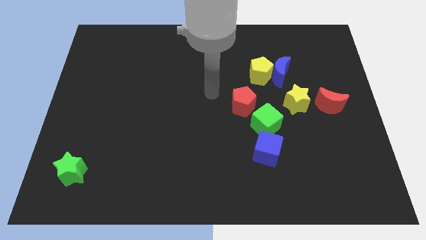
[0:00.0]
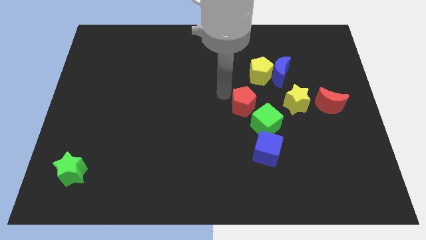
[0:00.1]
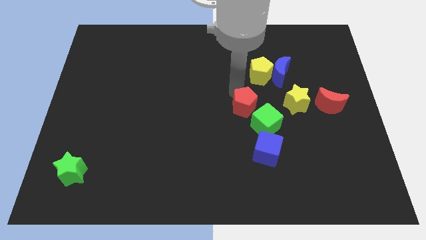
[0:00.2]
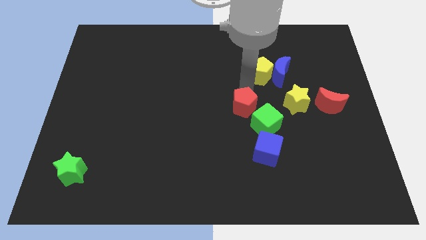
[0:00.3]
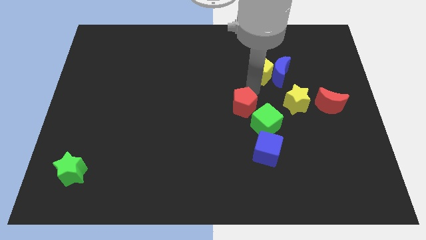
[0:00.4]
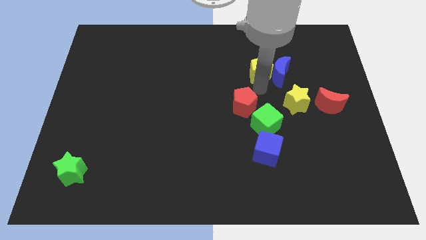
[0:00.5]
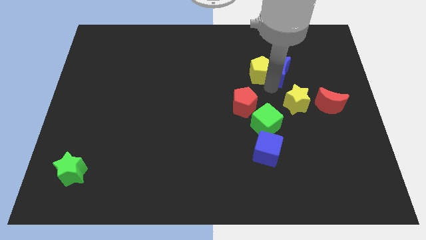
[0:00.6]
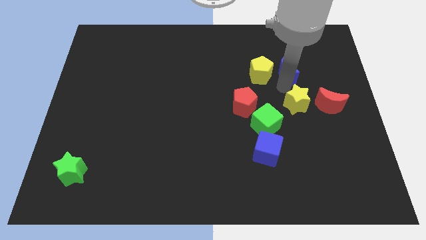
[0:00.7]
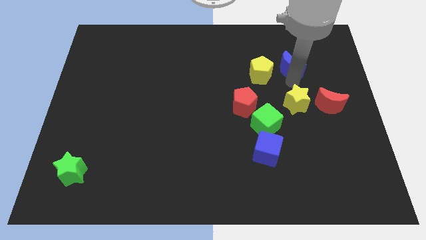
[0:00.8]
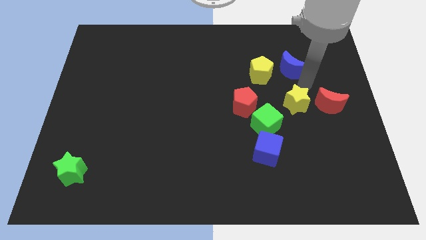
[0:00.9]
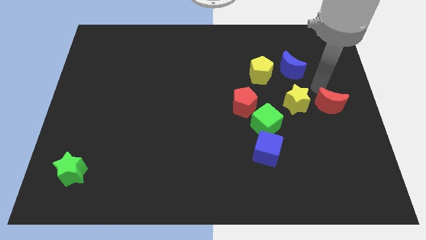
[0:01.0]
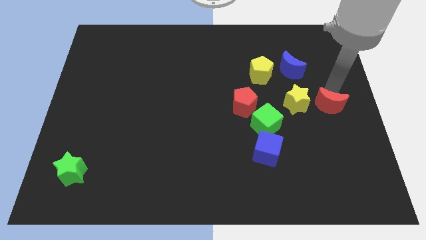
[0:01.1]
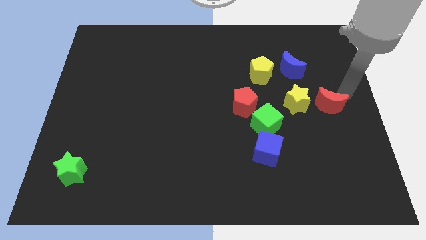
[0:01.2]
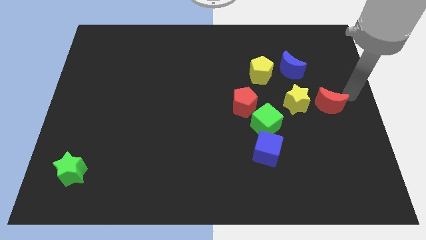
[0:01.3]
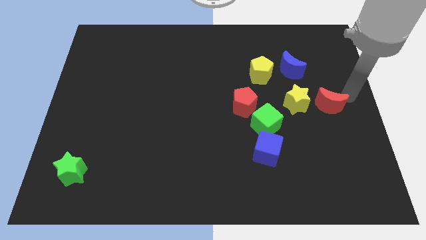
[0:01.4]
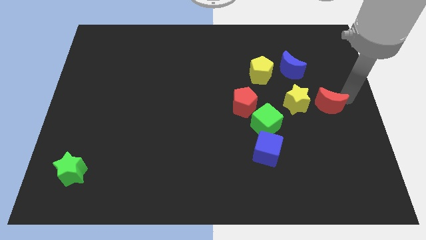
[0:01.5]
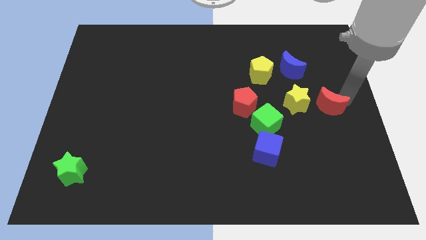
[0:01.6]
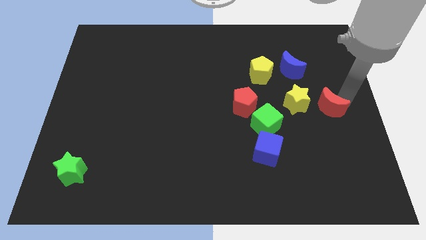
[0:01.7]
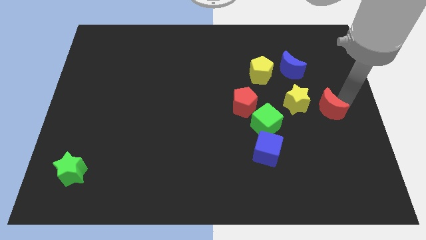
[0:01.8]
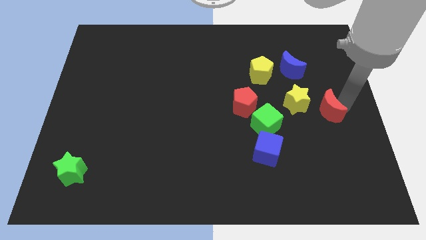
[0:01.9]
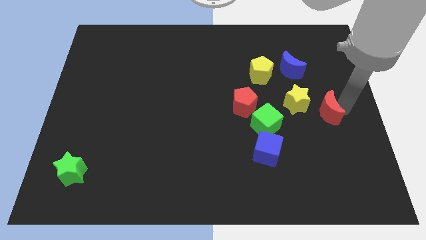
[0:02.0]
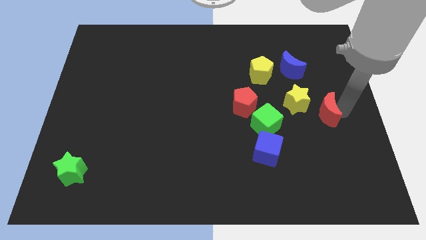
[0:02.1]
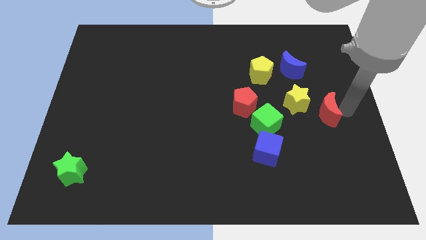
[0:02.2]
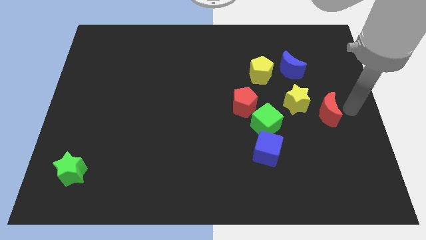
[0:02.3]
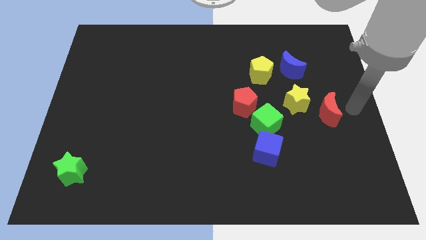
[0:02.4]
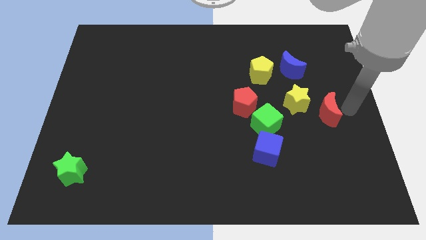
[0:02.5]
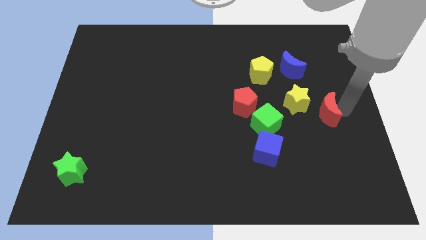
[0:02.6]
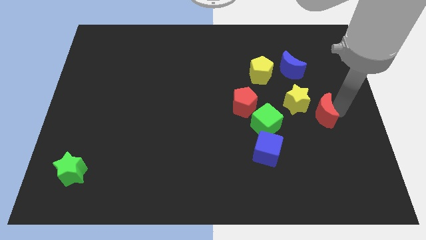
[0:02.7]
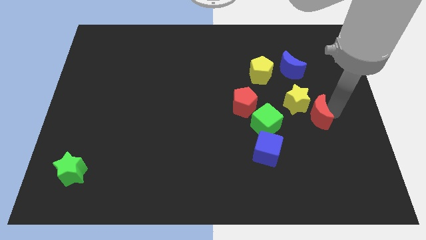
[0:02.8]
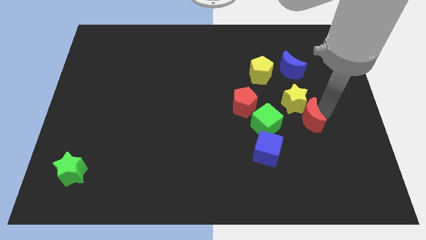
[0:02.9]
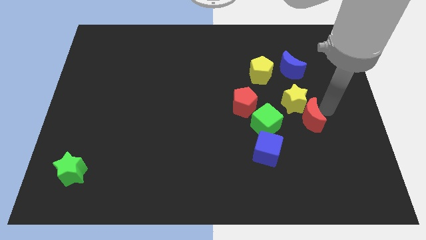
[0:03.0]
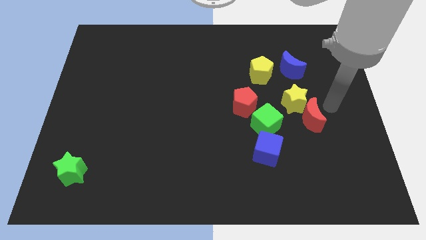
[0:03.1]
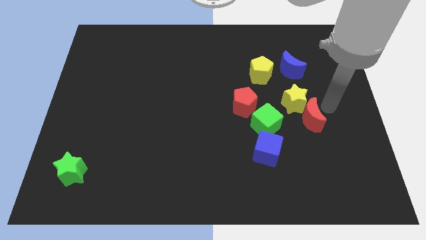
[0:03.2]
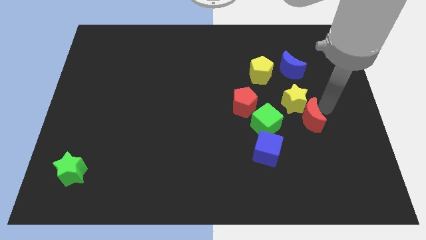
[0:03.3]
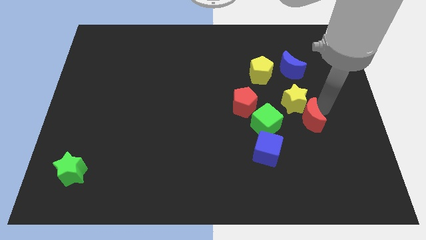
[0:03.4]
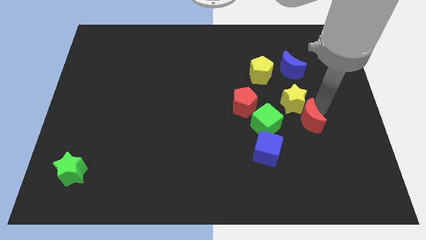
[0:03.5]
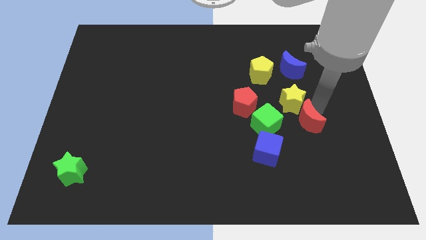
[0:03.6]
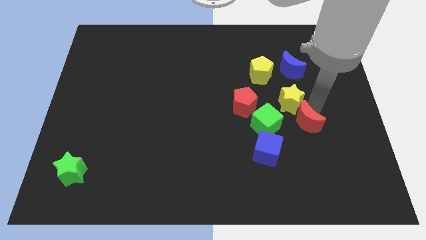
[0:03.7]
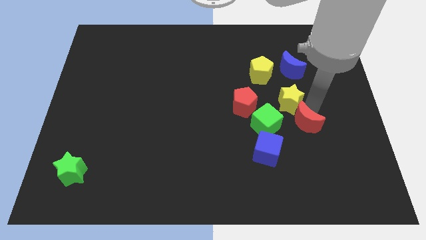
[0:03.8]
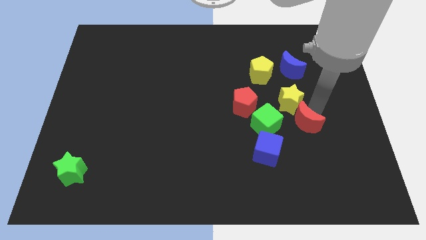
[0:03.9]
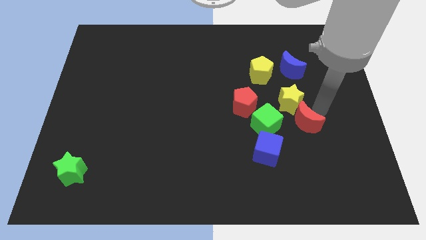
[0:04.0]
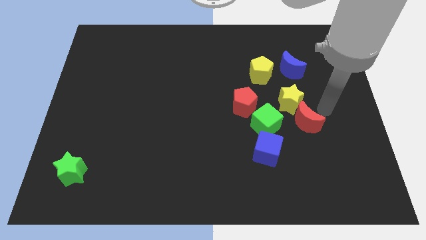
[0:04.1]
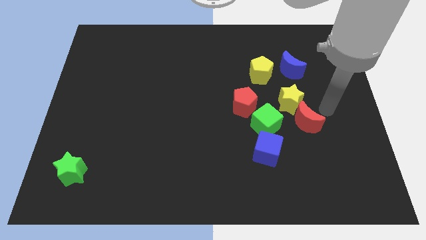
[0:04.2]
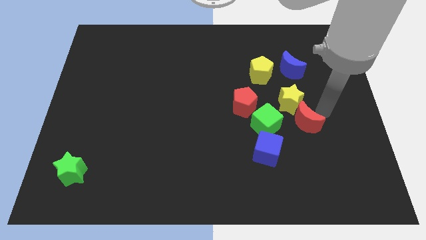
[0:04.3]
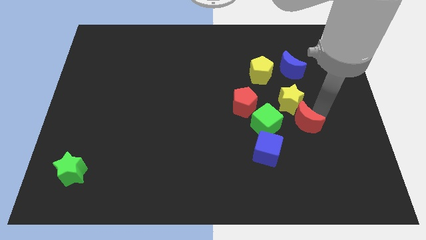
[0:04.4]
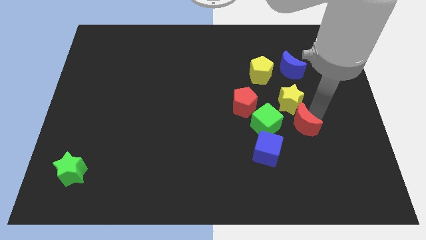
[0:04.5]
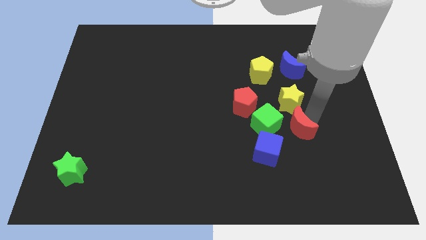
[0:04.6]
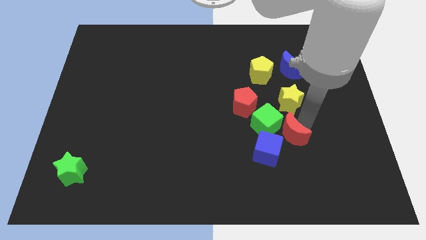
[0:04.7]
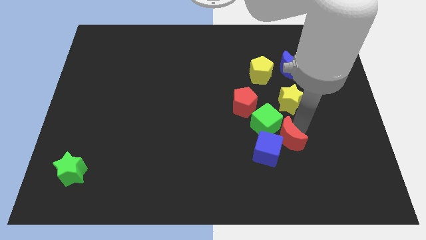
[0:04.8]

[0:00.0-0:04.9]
slide the red moon close to the blue cube

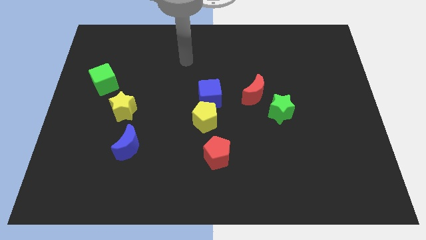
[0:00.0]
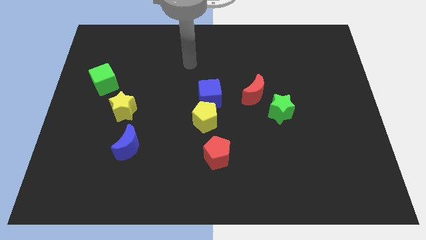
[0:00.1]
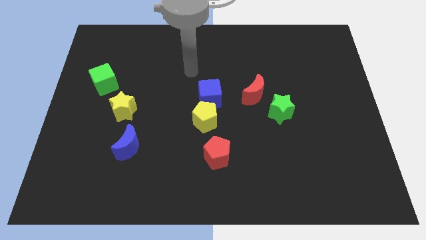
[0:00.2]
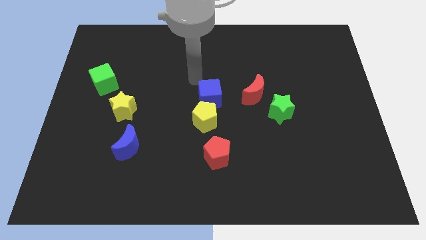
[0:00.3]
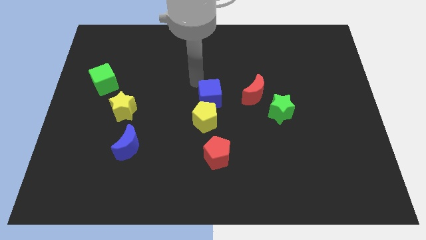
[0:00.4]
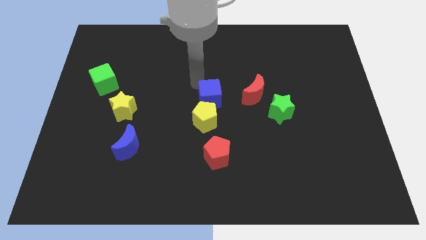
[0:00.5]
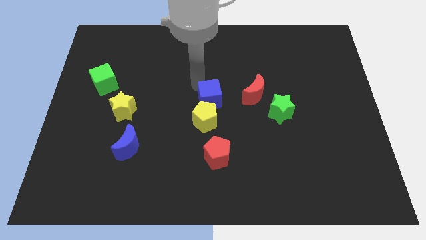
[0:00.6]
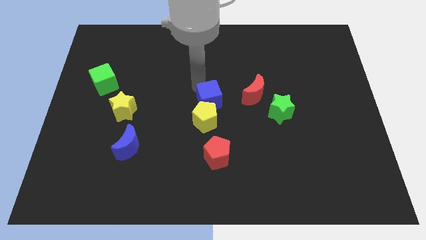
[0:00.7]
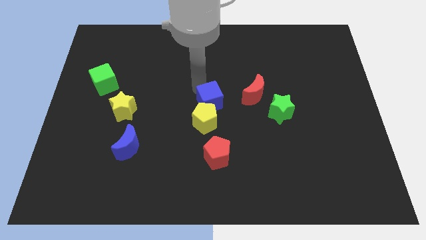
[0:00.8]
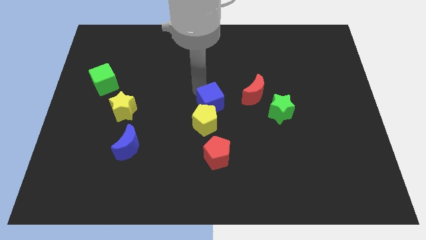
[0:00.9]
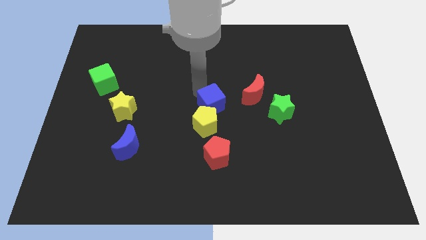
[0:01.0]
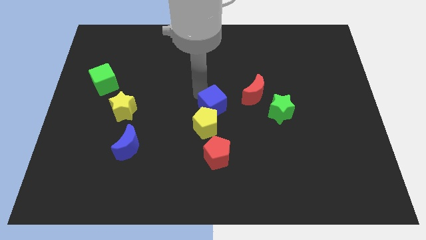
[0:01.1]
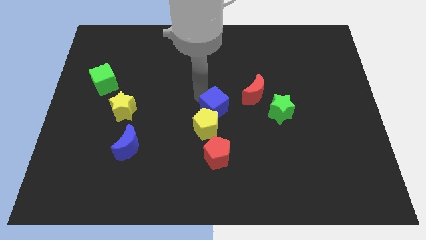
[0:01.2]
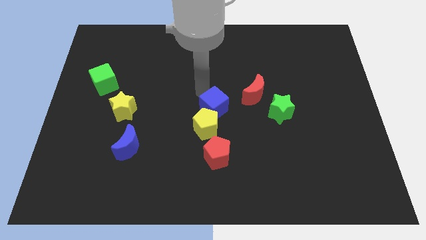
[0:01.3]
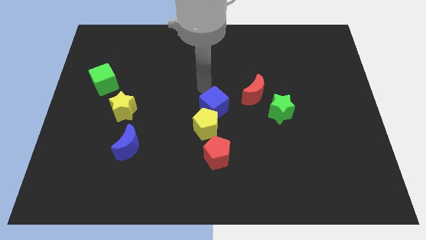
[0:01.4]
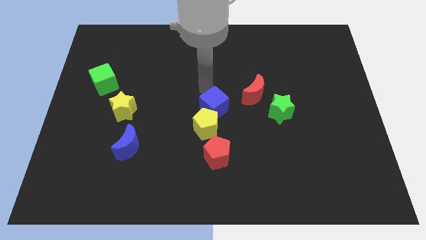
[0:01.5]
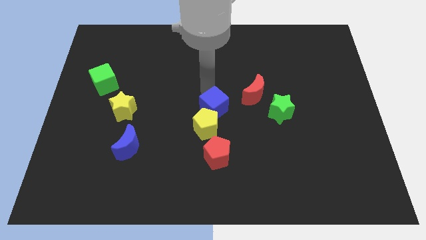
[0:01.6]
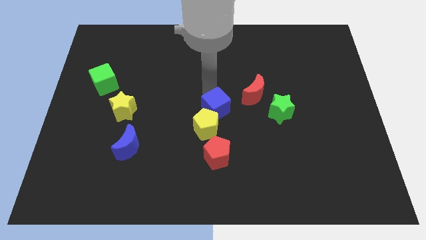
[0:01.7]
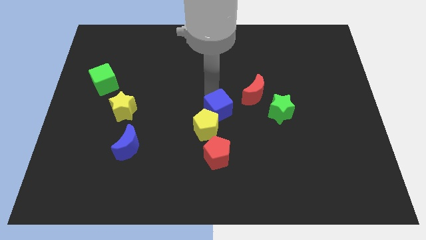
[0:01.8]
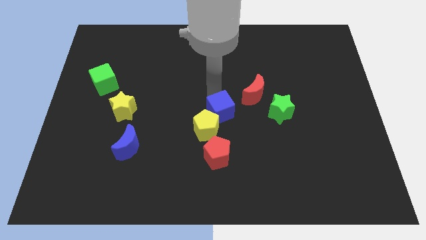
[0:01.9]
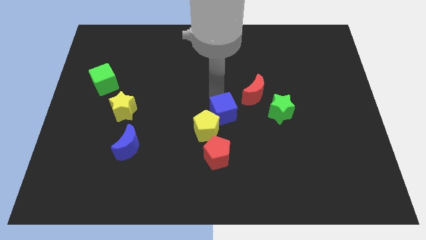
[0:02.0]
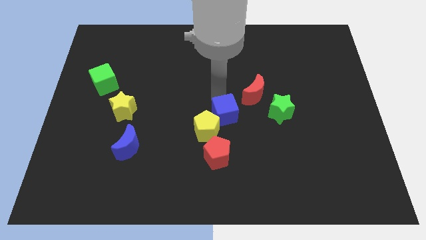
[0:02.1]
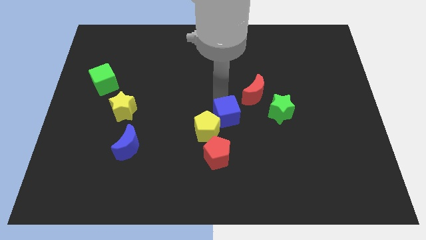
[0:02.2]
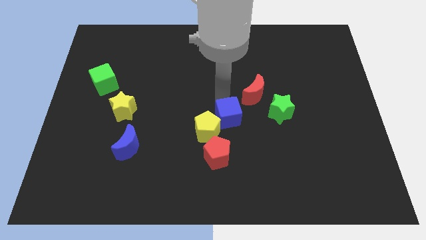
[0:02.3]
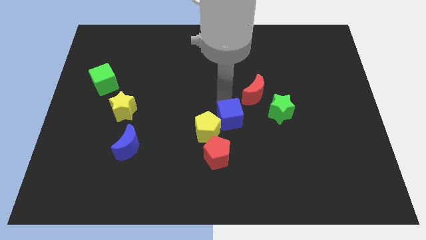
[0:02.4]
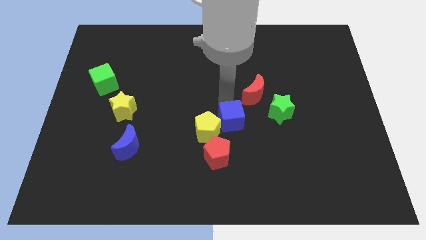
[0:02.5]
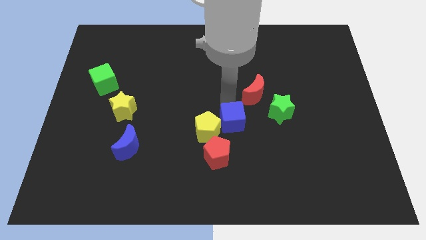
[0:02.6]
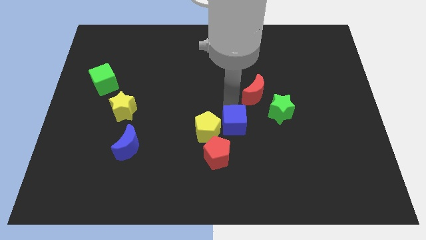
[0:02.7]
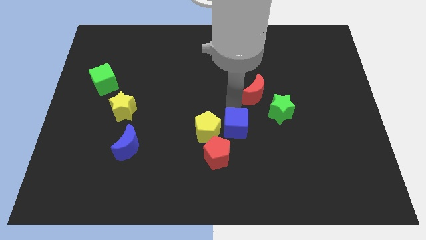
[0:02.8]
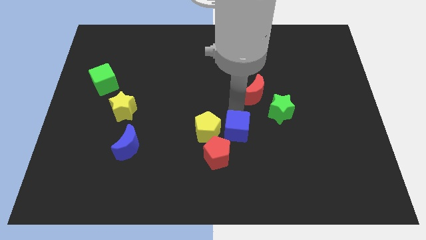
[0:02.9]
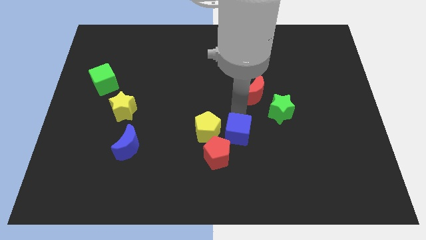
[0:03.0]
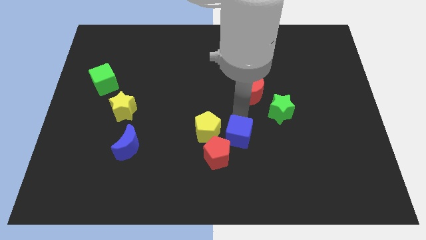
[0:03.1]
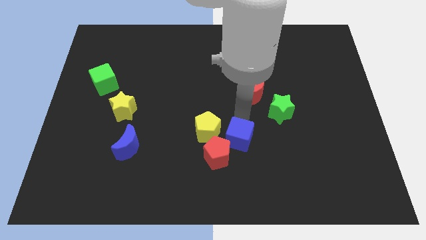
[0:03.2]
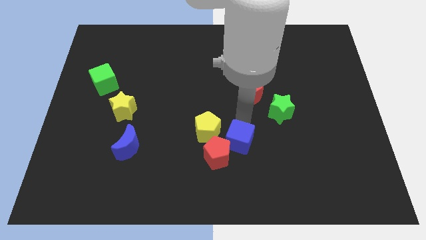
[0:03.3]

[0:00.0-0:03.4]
put the blue cube to the red pentagon
